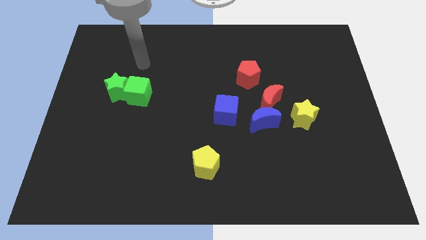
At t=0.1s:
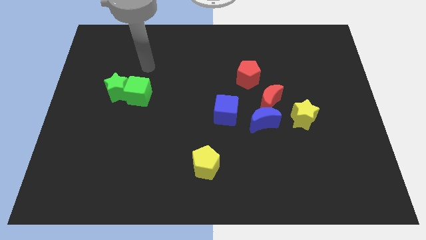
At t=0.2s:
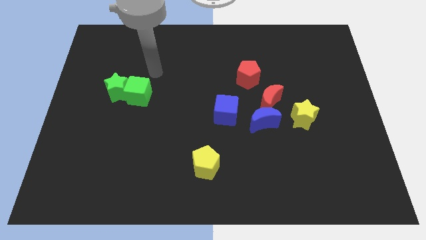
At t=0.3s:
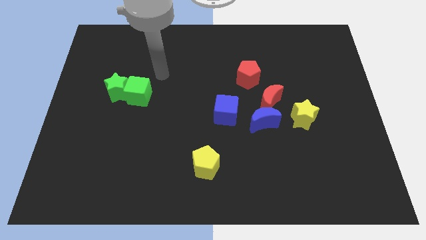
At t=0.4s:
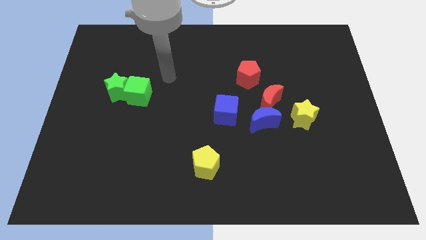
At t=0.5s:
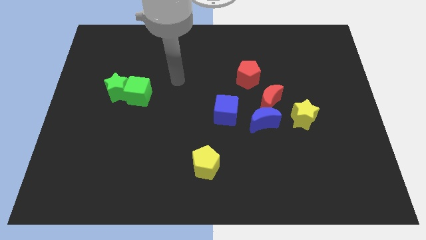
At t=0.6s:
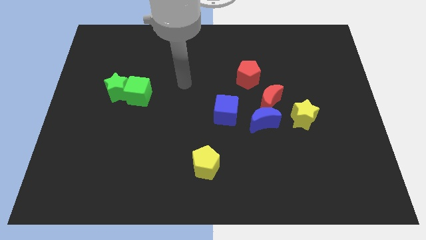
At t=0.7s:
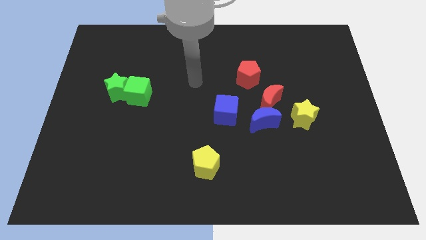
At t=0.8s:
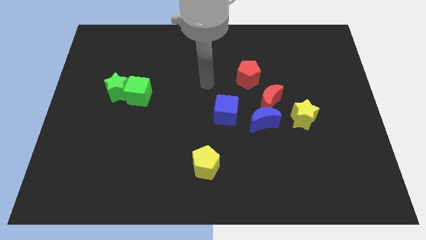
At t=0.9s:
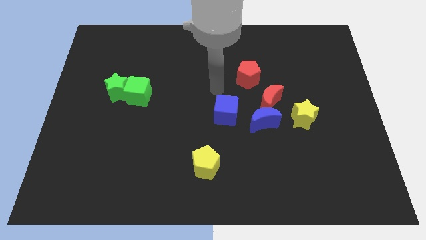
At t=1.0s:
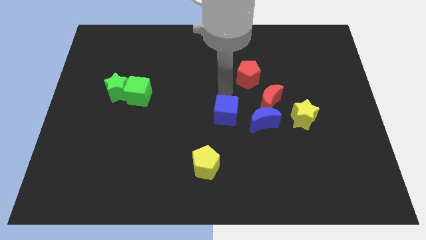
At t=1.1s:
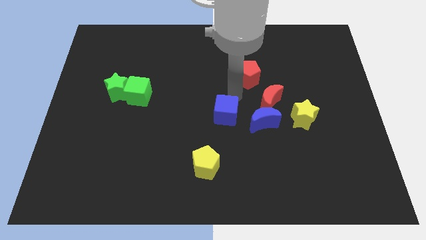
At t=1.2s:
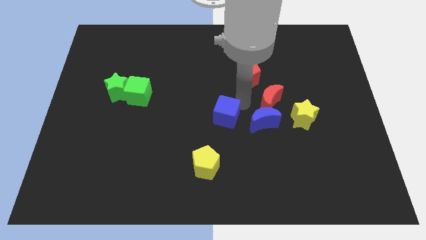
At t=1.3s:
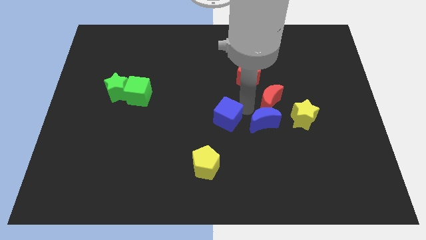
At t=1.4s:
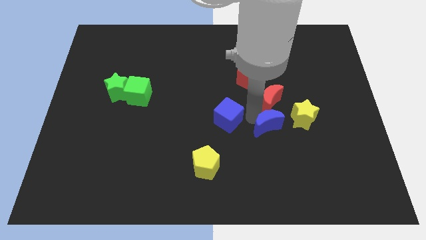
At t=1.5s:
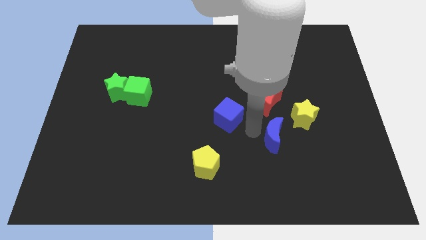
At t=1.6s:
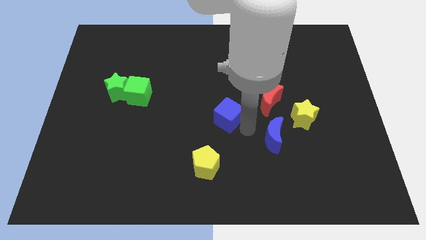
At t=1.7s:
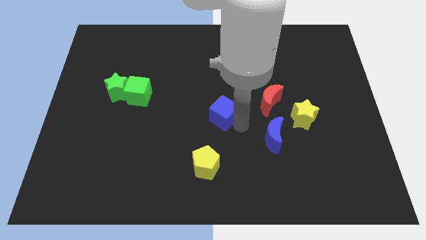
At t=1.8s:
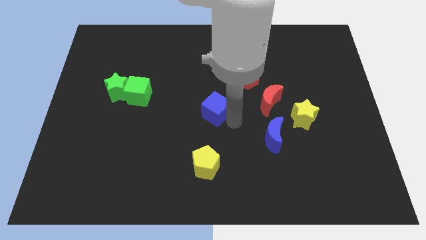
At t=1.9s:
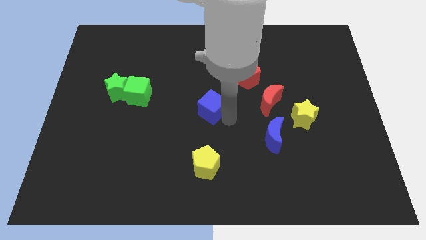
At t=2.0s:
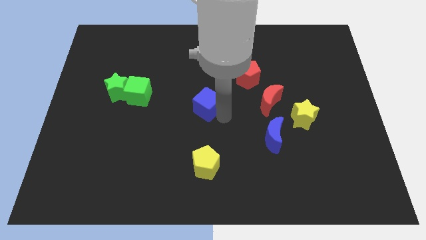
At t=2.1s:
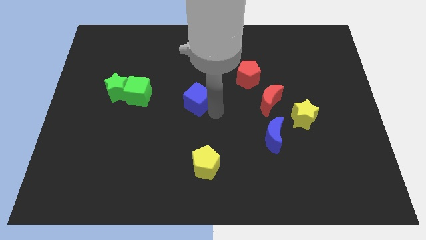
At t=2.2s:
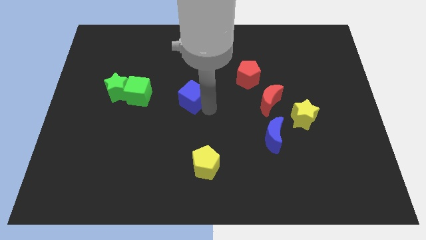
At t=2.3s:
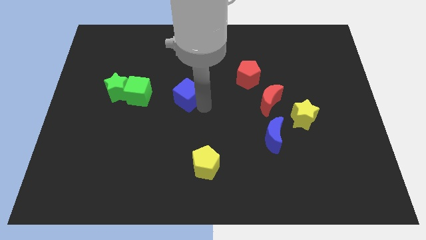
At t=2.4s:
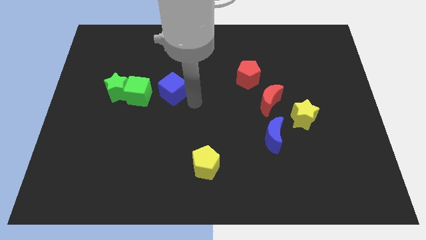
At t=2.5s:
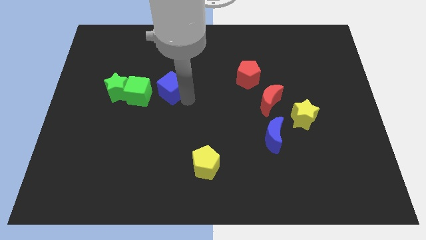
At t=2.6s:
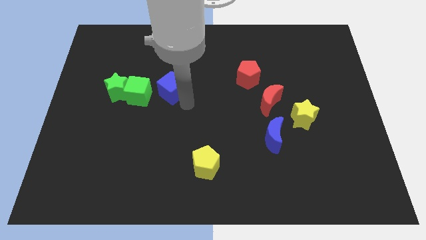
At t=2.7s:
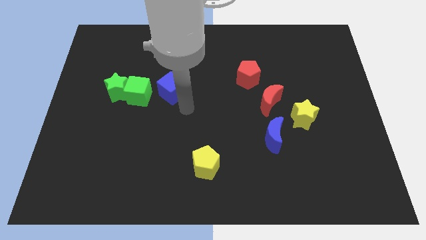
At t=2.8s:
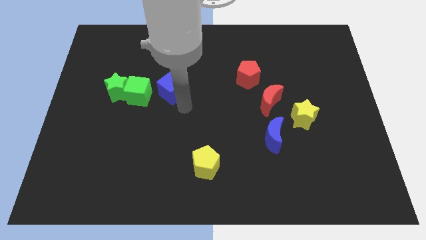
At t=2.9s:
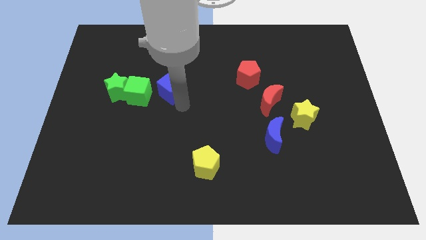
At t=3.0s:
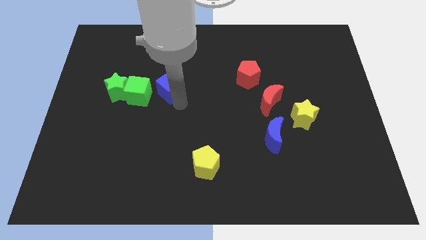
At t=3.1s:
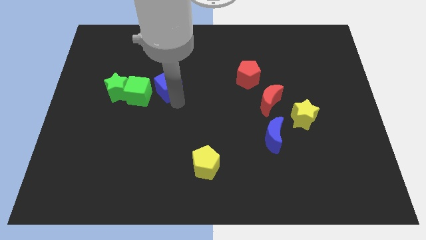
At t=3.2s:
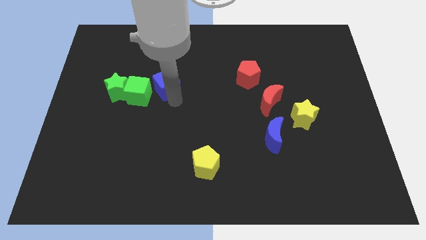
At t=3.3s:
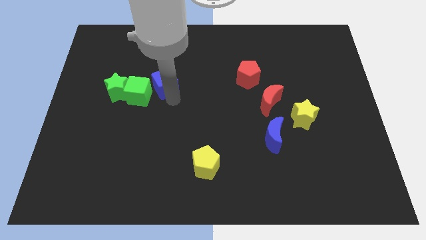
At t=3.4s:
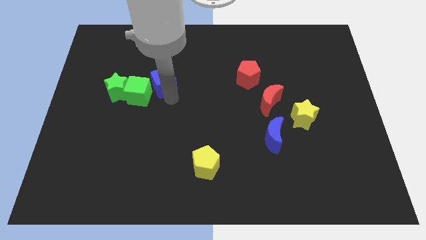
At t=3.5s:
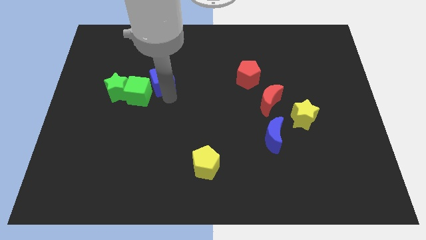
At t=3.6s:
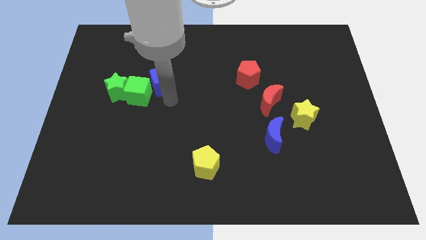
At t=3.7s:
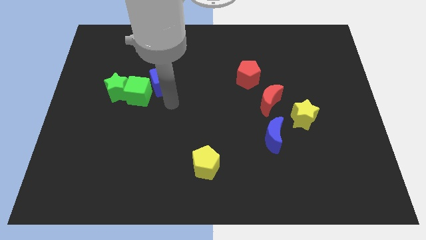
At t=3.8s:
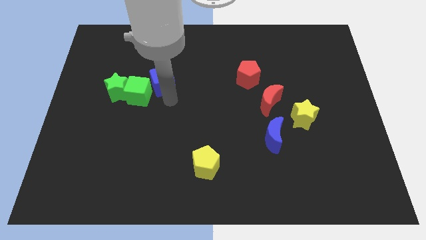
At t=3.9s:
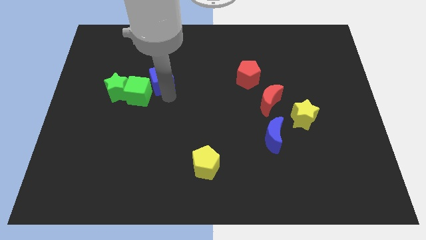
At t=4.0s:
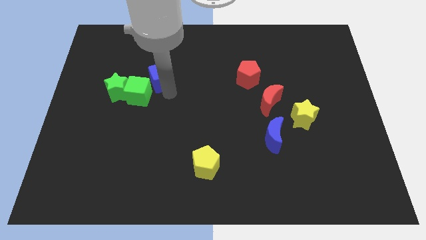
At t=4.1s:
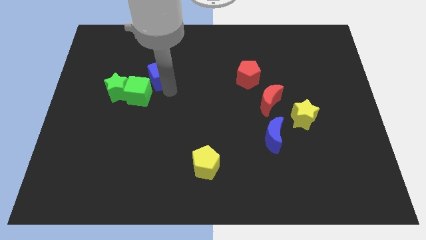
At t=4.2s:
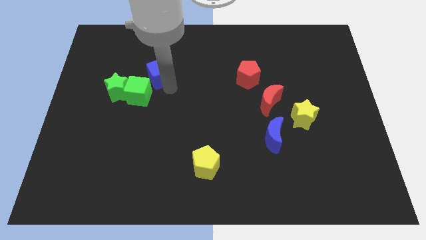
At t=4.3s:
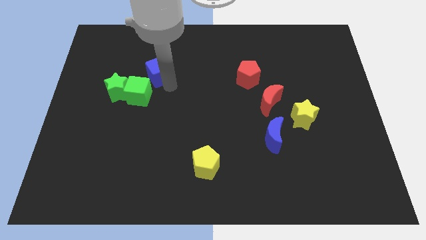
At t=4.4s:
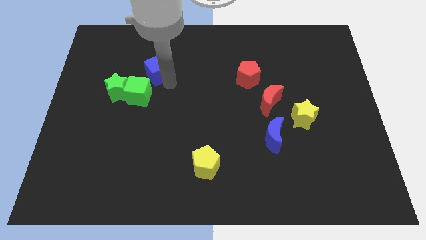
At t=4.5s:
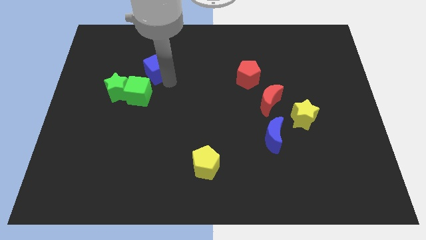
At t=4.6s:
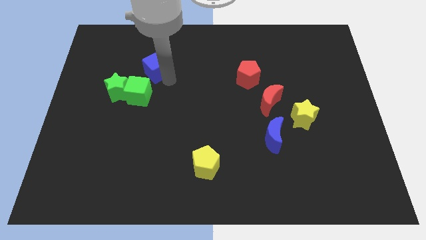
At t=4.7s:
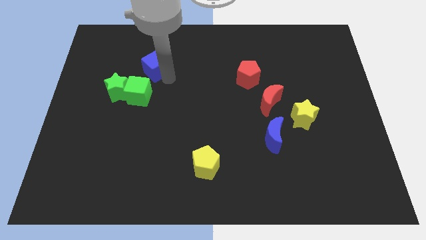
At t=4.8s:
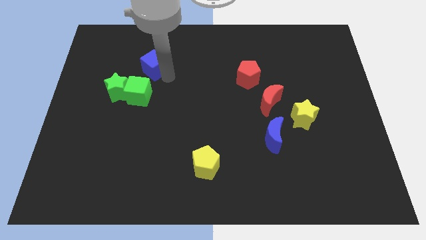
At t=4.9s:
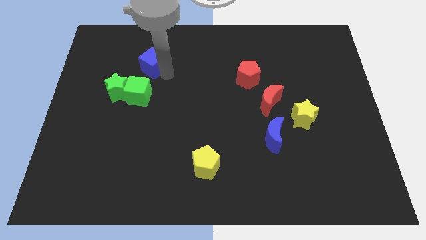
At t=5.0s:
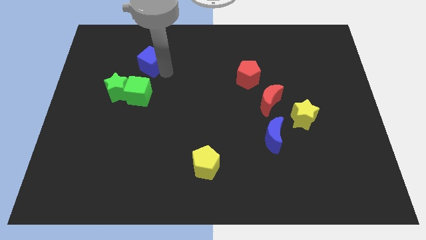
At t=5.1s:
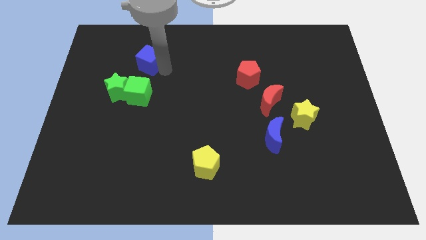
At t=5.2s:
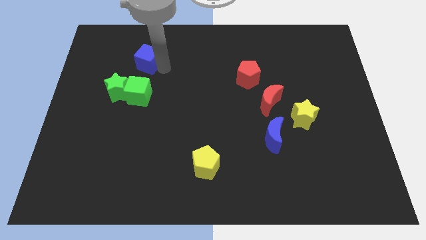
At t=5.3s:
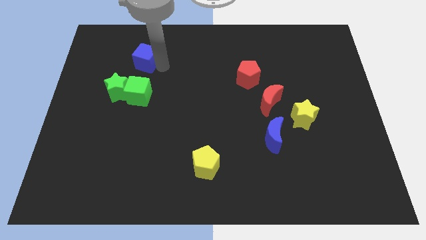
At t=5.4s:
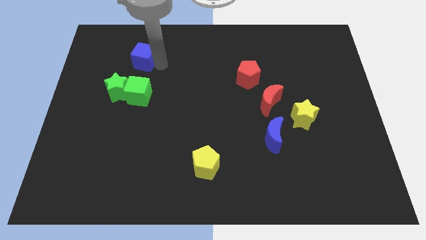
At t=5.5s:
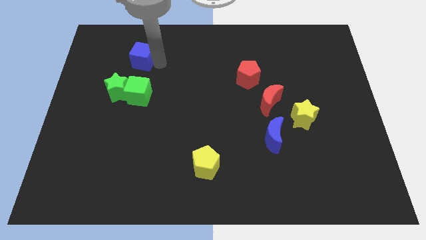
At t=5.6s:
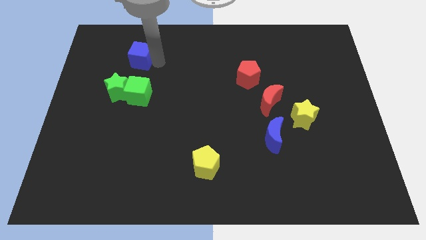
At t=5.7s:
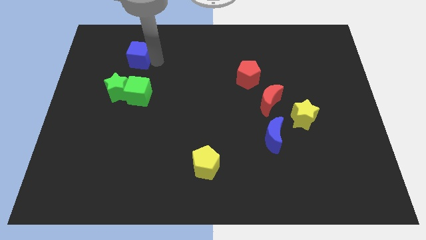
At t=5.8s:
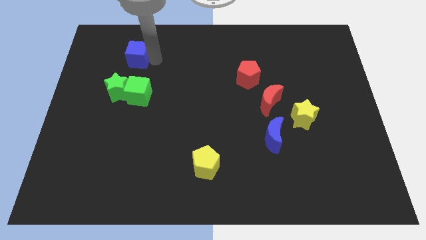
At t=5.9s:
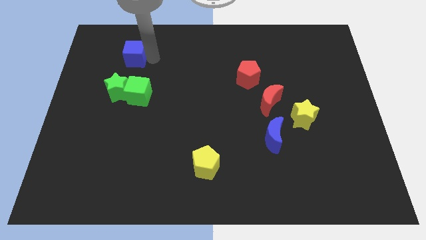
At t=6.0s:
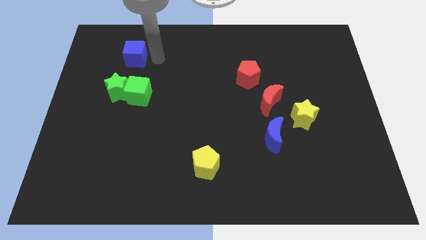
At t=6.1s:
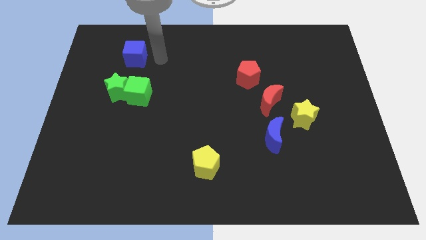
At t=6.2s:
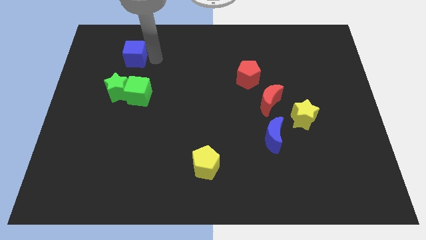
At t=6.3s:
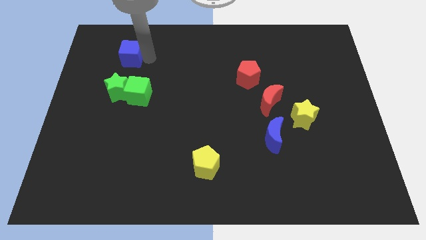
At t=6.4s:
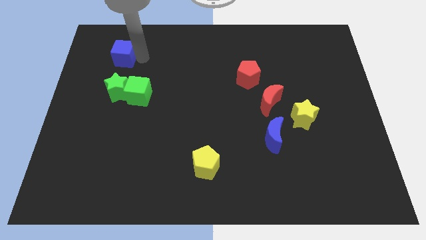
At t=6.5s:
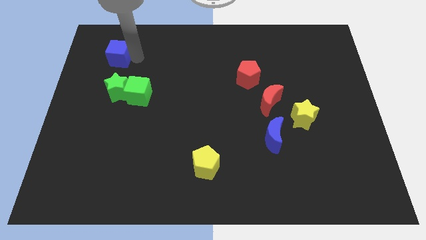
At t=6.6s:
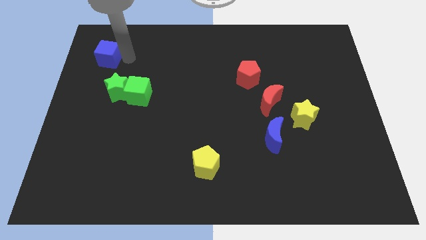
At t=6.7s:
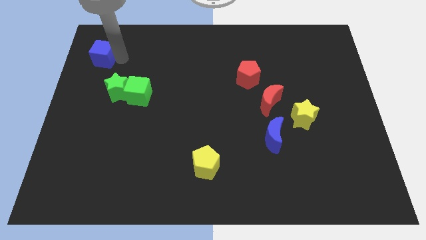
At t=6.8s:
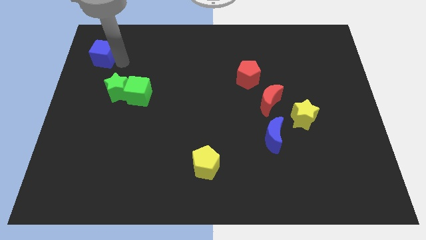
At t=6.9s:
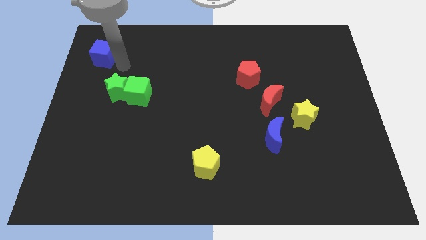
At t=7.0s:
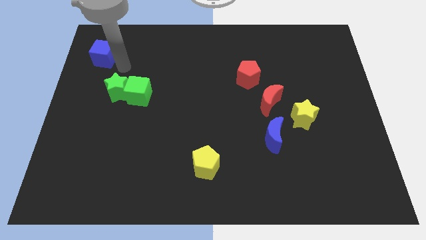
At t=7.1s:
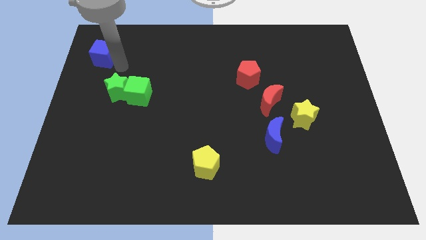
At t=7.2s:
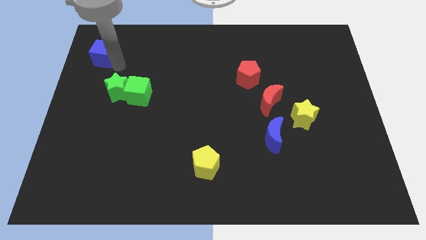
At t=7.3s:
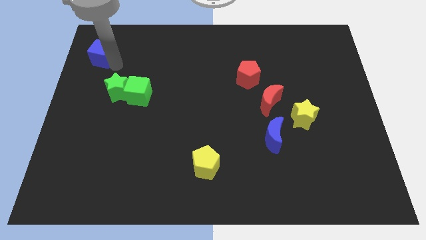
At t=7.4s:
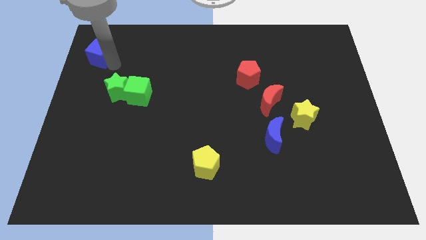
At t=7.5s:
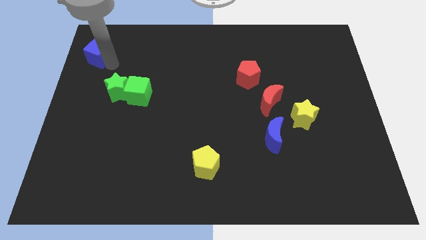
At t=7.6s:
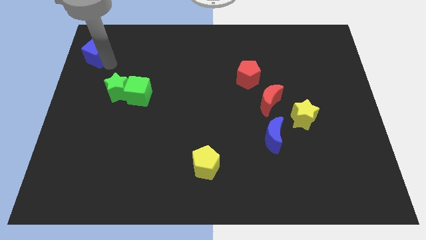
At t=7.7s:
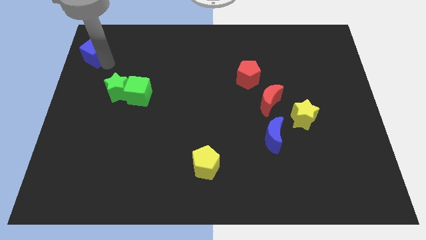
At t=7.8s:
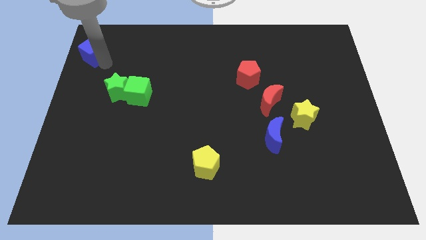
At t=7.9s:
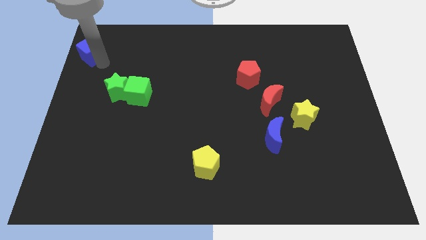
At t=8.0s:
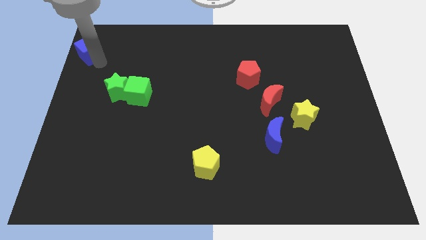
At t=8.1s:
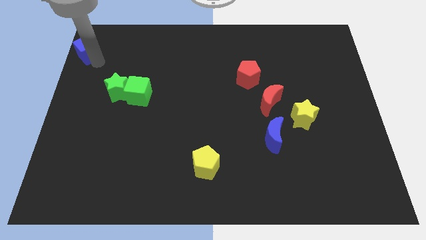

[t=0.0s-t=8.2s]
push the blue cube to the top left
